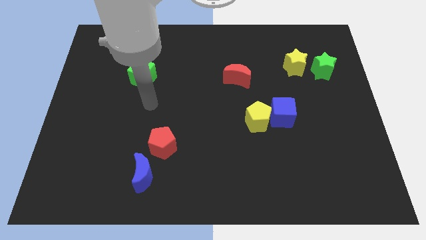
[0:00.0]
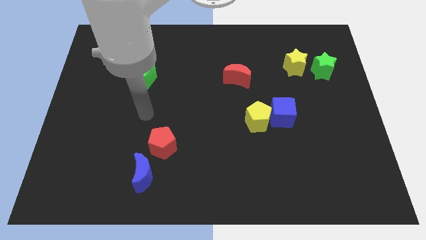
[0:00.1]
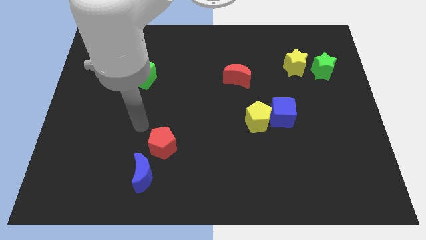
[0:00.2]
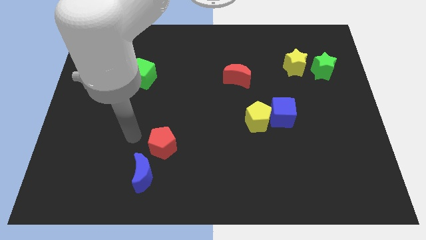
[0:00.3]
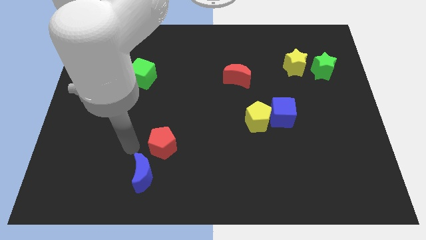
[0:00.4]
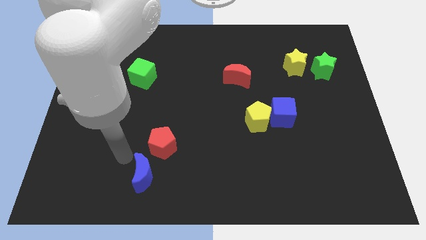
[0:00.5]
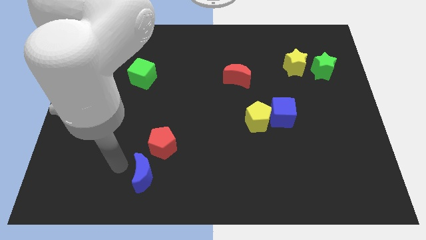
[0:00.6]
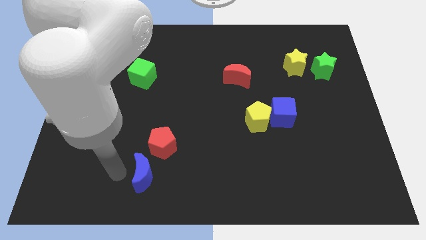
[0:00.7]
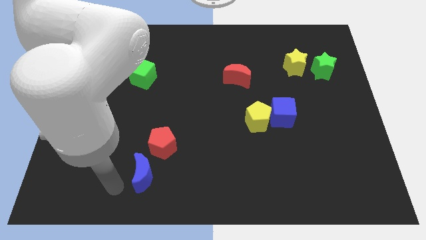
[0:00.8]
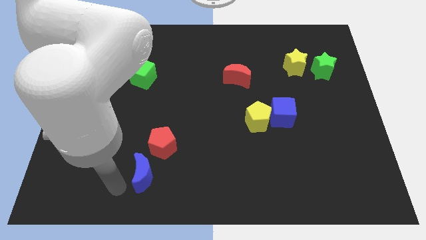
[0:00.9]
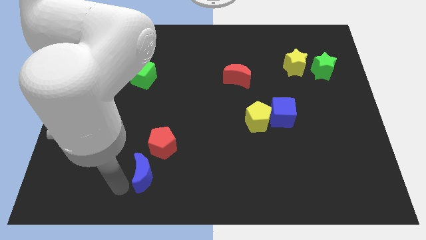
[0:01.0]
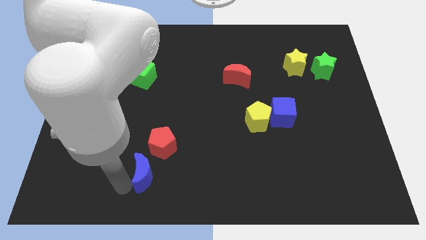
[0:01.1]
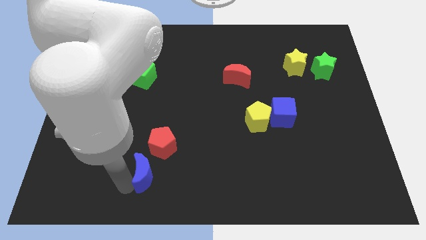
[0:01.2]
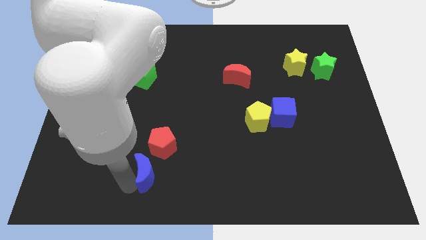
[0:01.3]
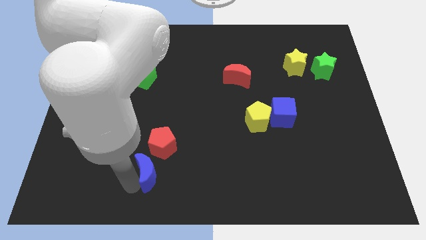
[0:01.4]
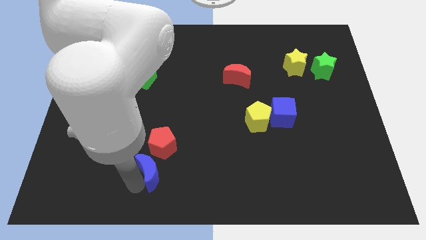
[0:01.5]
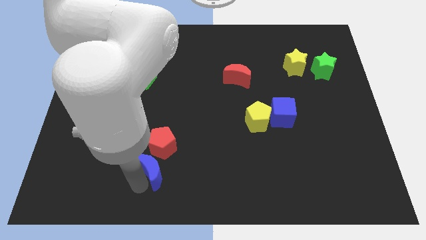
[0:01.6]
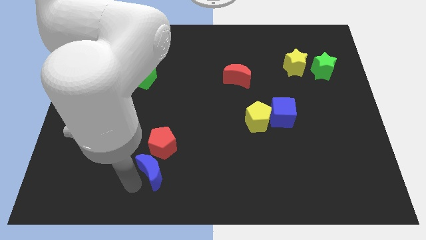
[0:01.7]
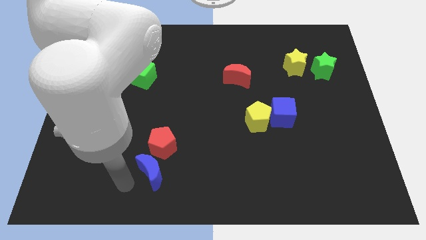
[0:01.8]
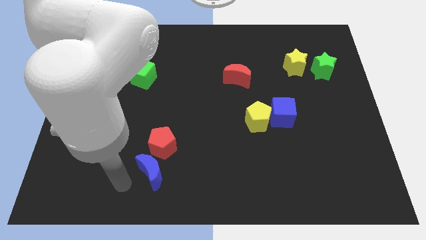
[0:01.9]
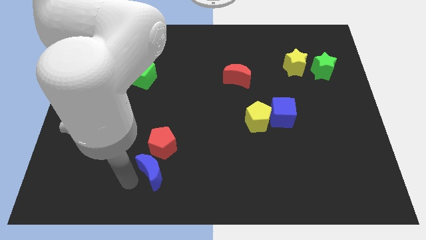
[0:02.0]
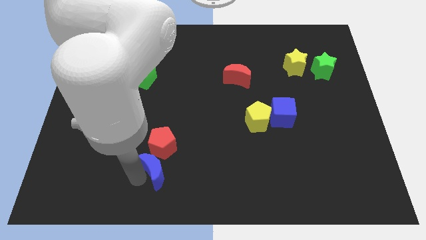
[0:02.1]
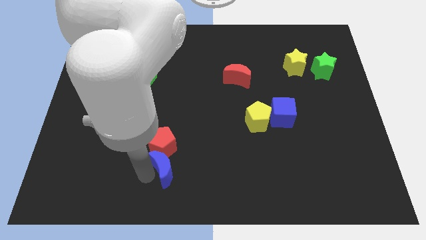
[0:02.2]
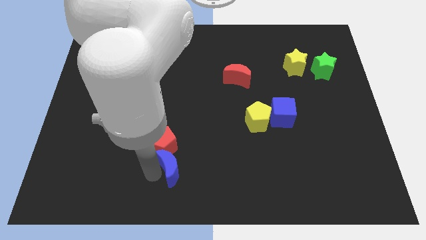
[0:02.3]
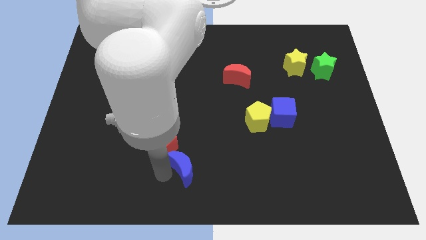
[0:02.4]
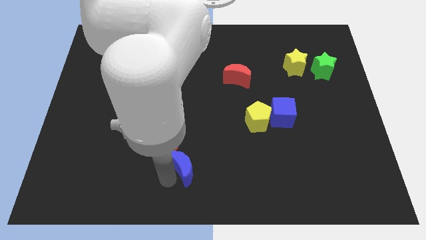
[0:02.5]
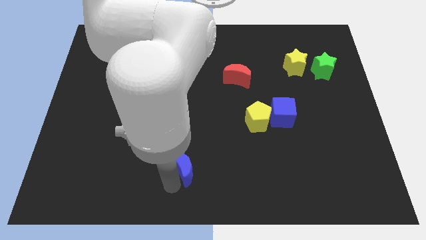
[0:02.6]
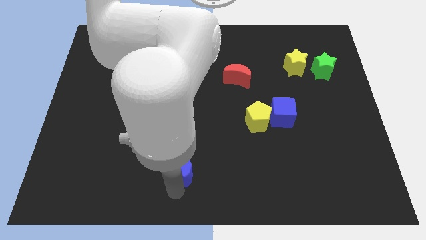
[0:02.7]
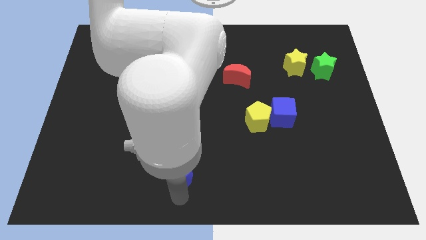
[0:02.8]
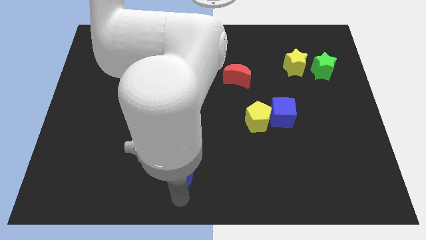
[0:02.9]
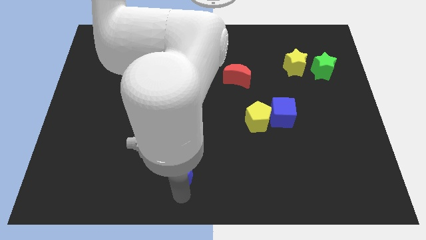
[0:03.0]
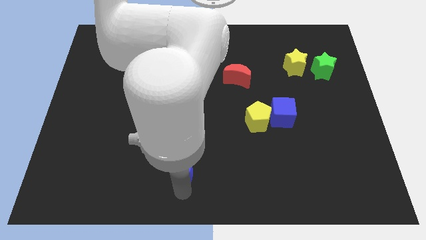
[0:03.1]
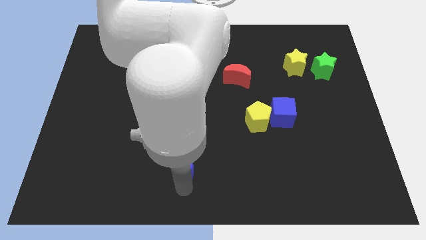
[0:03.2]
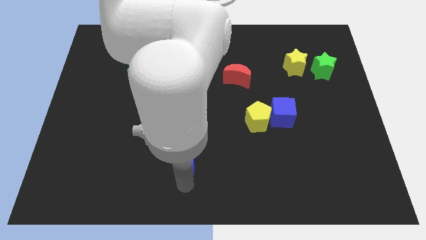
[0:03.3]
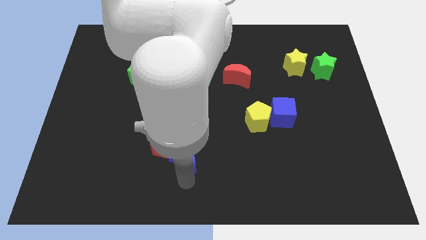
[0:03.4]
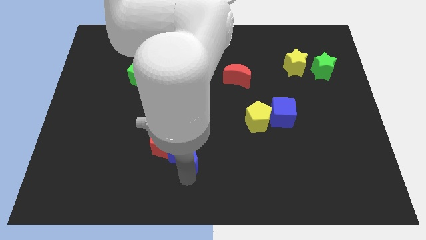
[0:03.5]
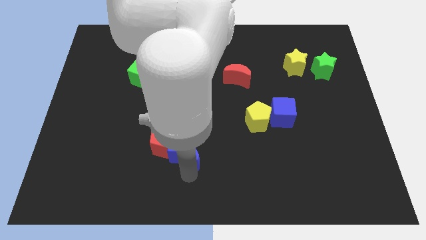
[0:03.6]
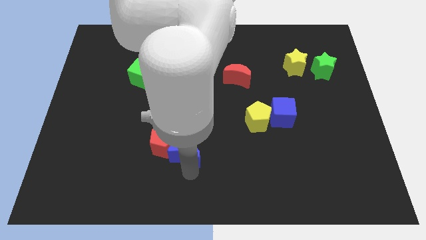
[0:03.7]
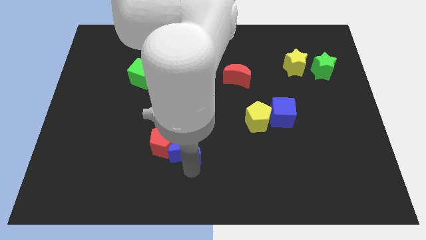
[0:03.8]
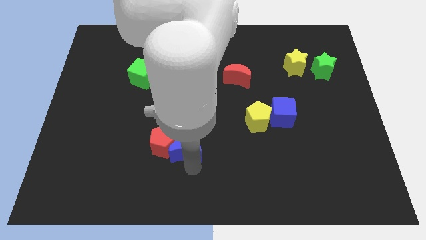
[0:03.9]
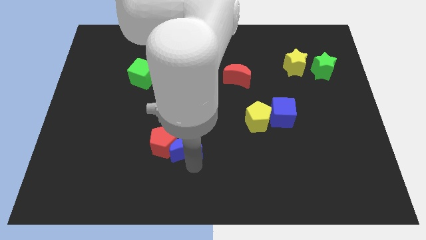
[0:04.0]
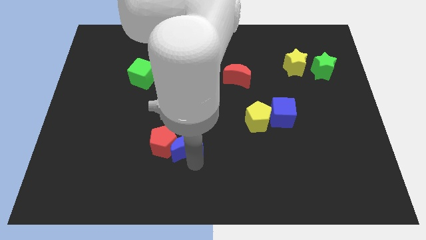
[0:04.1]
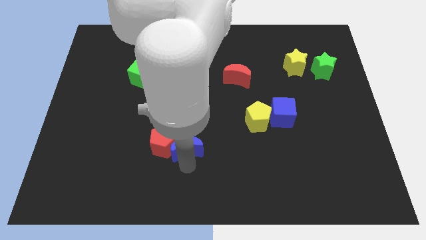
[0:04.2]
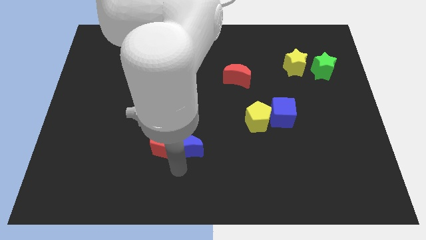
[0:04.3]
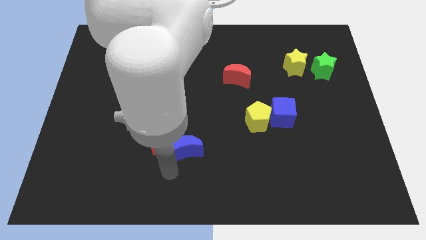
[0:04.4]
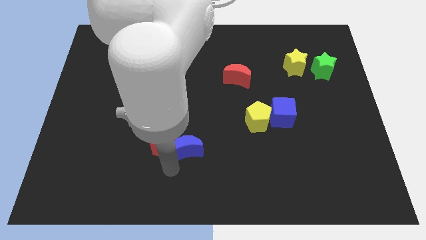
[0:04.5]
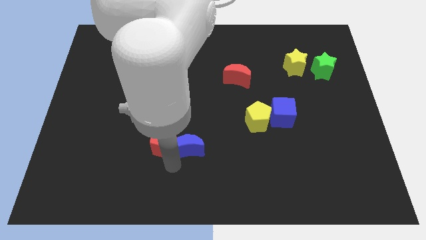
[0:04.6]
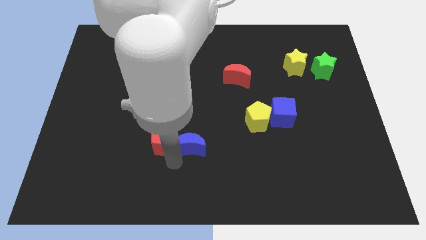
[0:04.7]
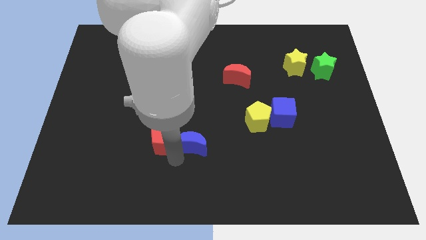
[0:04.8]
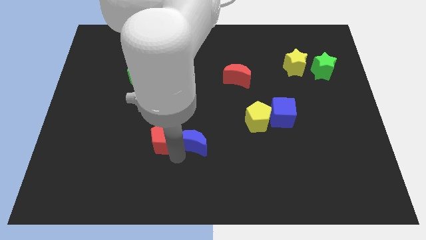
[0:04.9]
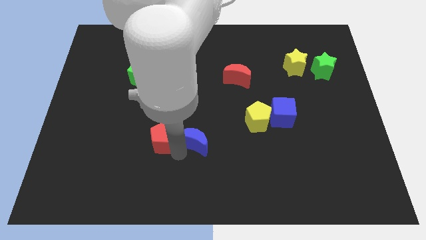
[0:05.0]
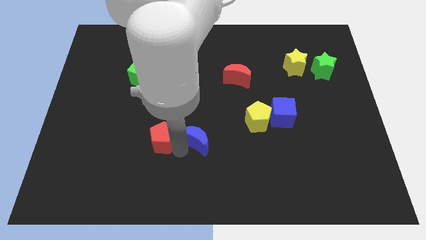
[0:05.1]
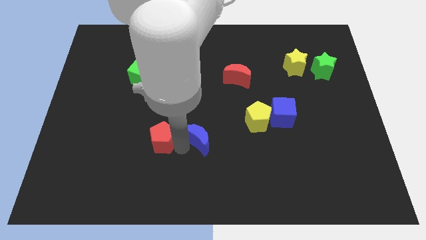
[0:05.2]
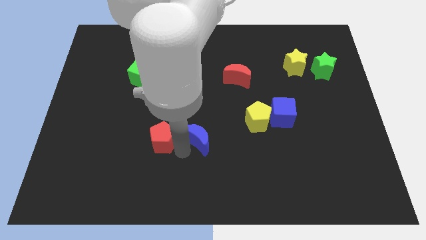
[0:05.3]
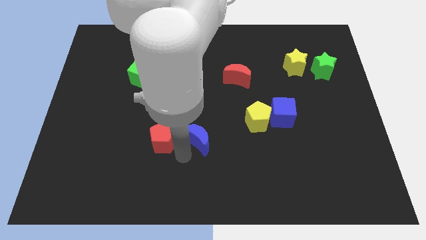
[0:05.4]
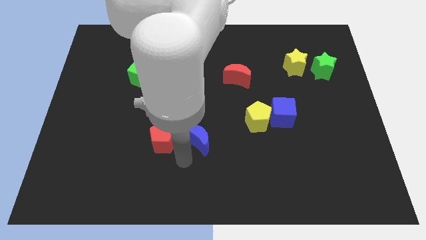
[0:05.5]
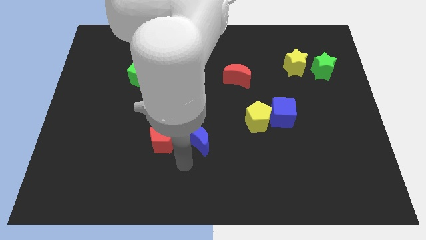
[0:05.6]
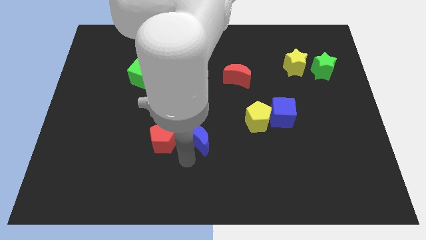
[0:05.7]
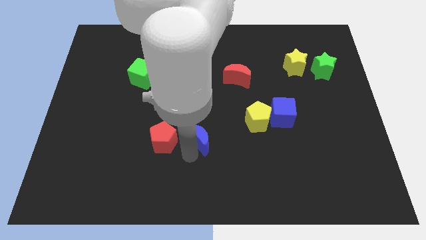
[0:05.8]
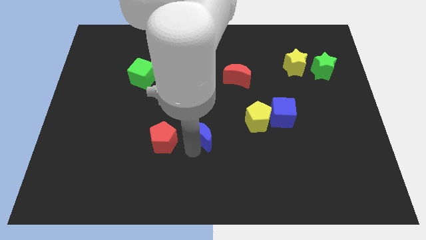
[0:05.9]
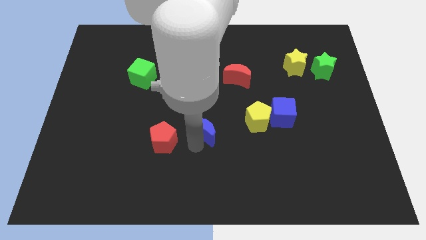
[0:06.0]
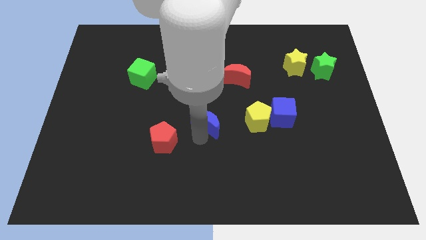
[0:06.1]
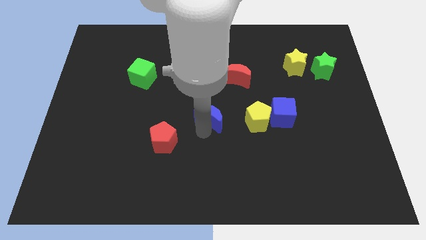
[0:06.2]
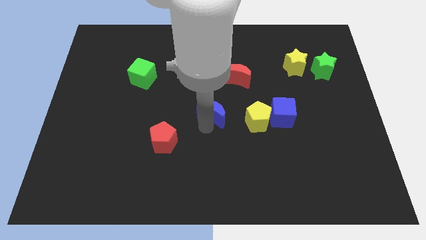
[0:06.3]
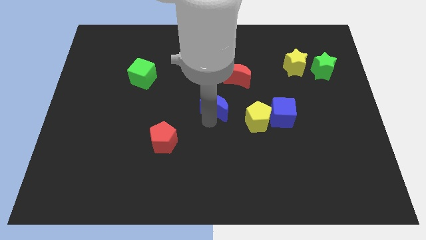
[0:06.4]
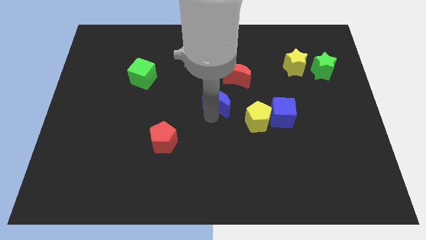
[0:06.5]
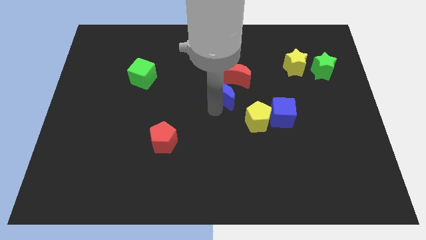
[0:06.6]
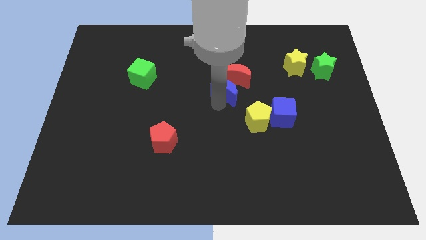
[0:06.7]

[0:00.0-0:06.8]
slide the blue moon next to the red moon

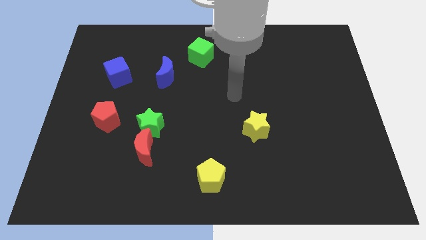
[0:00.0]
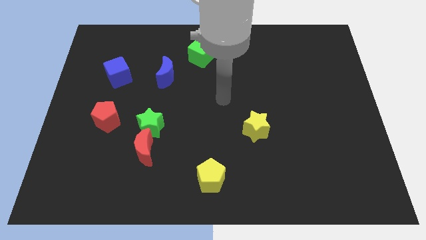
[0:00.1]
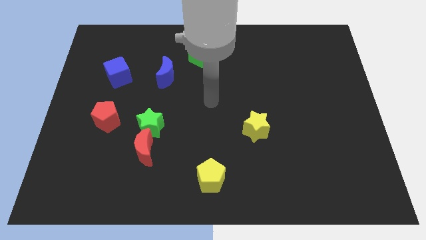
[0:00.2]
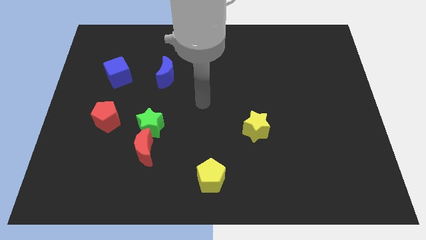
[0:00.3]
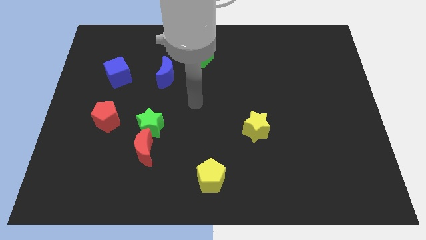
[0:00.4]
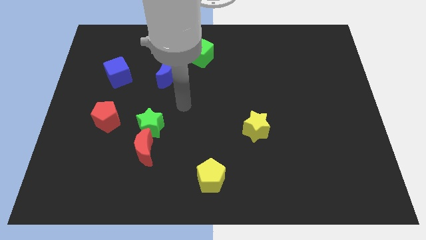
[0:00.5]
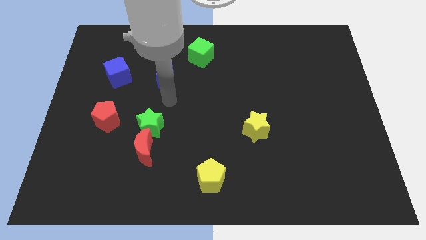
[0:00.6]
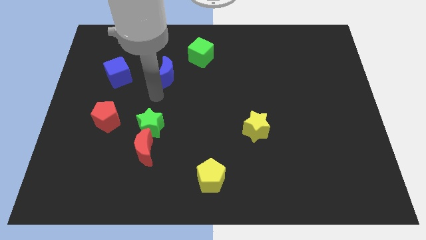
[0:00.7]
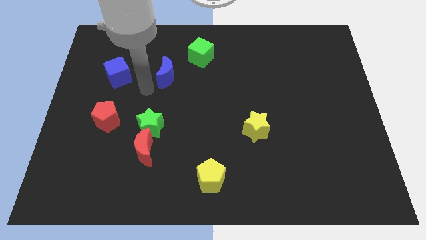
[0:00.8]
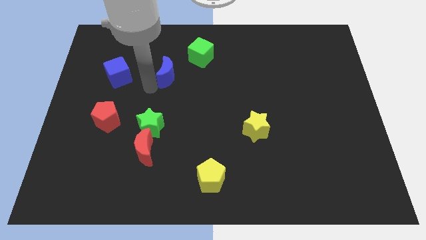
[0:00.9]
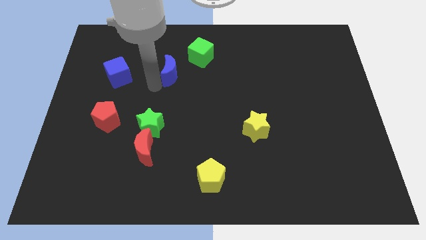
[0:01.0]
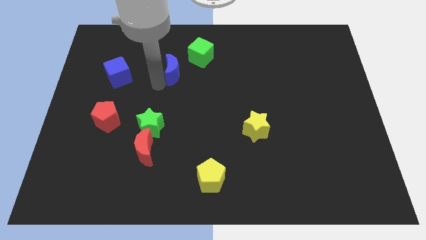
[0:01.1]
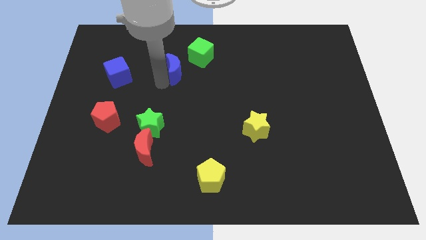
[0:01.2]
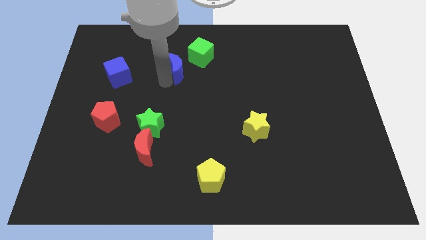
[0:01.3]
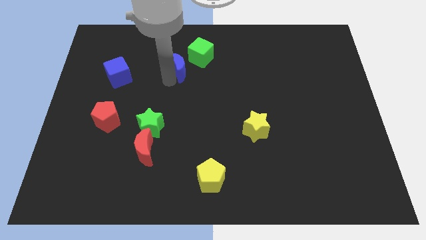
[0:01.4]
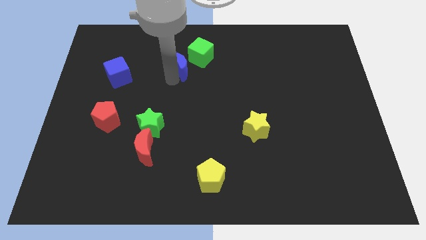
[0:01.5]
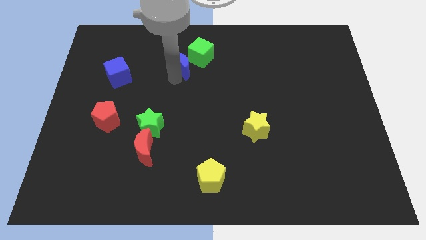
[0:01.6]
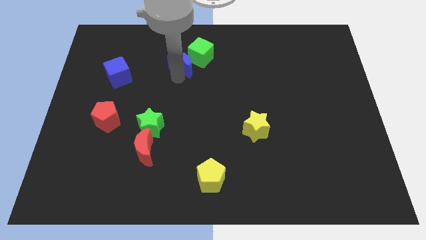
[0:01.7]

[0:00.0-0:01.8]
move the blue moon next to the green cube
